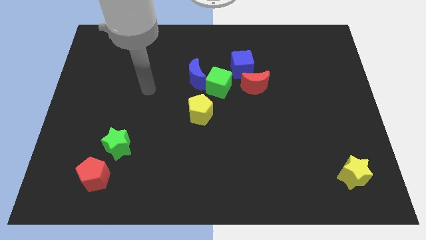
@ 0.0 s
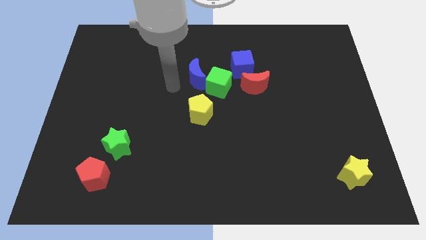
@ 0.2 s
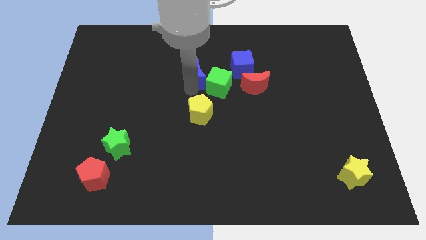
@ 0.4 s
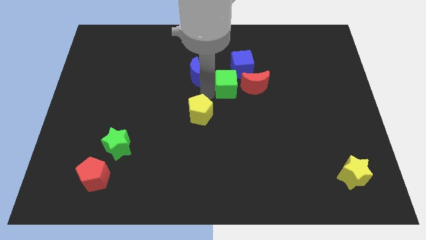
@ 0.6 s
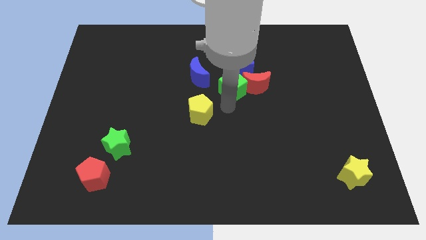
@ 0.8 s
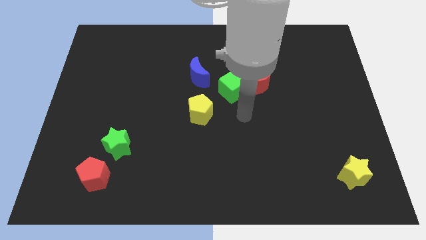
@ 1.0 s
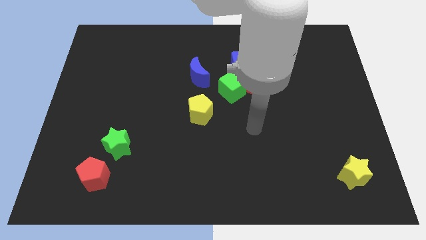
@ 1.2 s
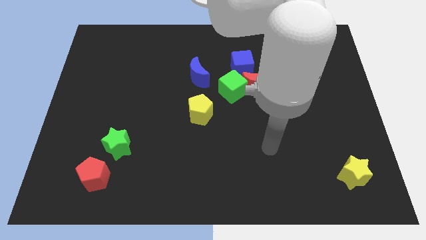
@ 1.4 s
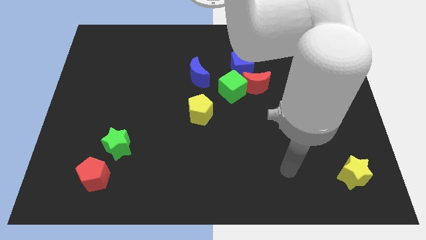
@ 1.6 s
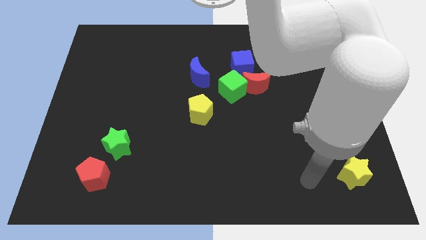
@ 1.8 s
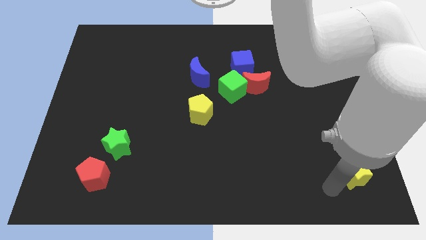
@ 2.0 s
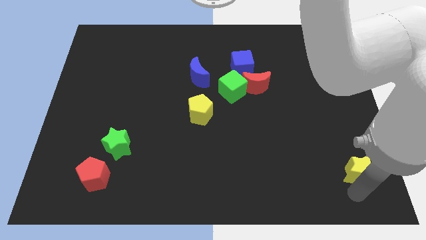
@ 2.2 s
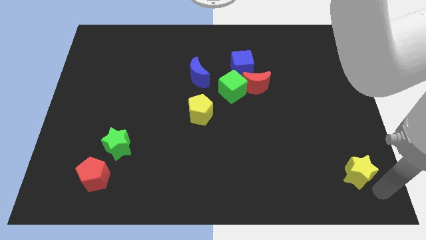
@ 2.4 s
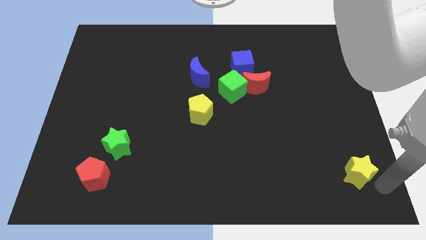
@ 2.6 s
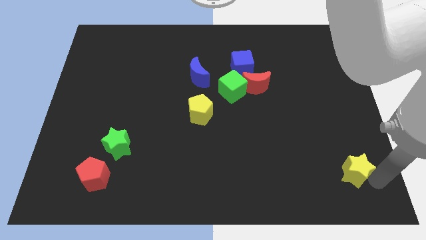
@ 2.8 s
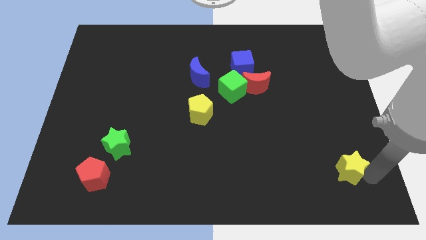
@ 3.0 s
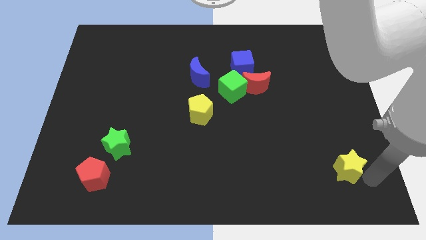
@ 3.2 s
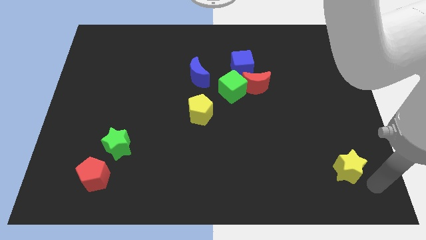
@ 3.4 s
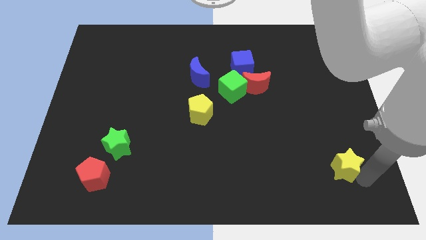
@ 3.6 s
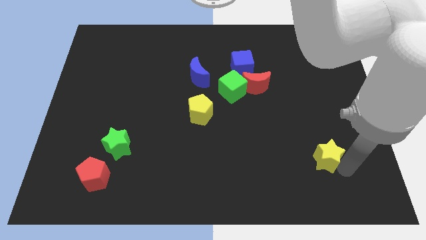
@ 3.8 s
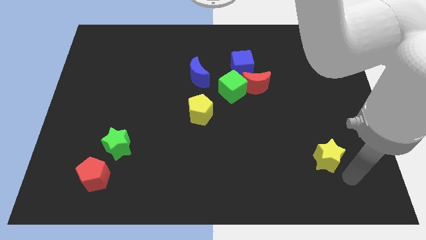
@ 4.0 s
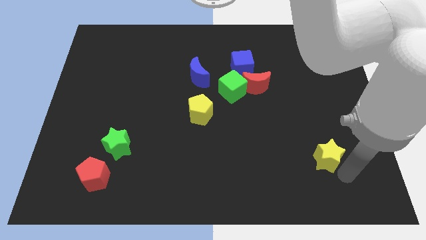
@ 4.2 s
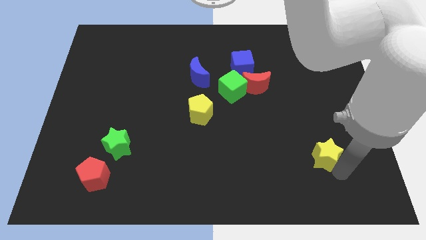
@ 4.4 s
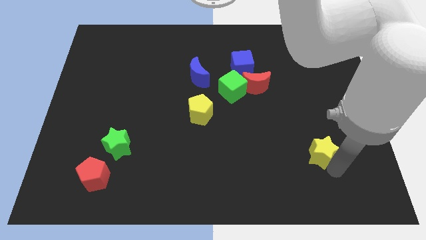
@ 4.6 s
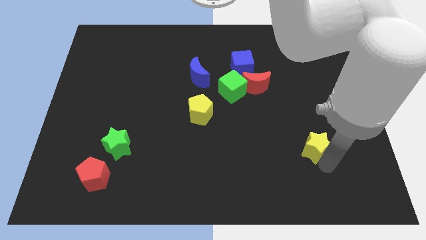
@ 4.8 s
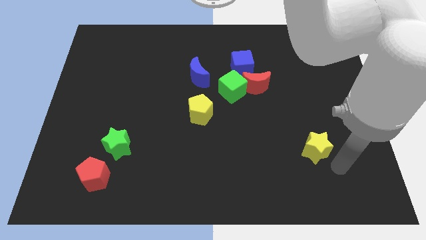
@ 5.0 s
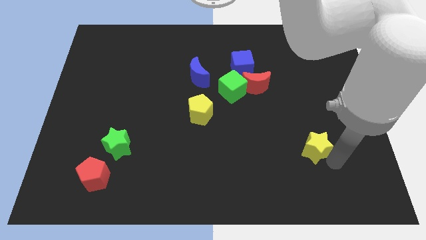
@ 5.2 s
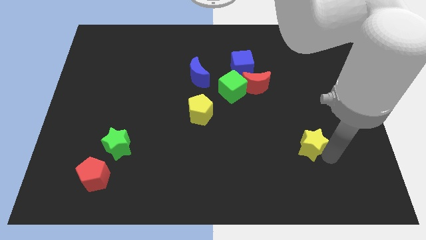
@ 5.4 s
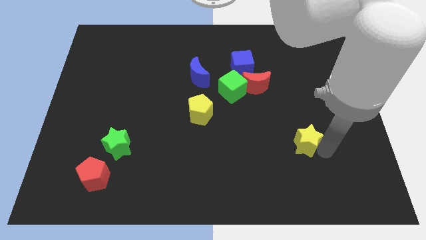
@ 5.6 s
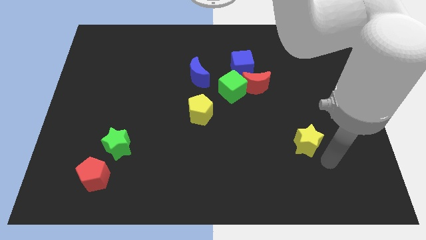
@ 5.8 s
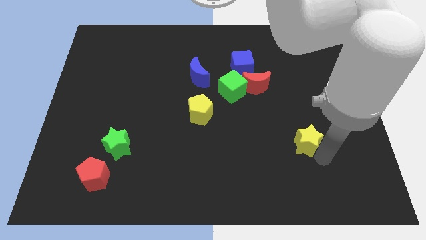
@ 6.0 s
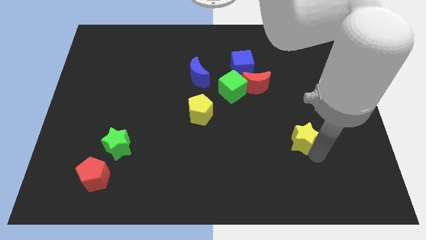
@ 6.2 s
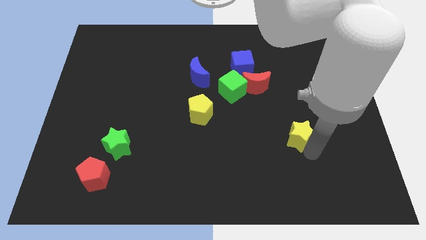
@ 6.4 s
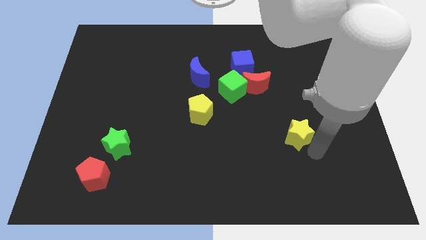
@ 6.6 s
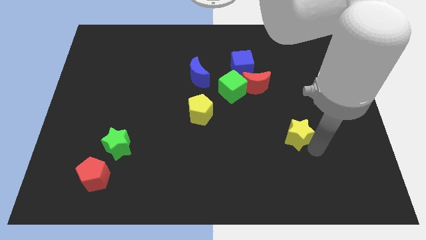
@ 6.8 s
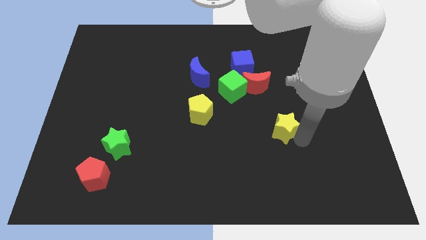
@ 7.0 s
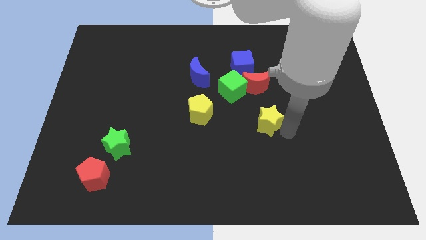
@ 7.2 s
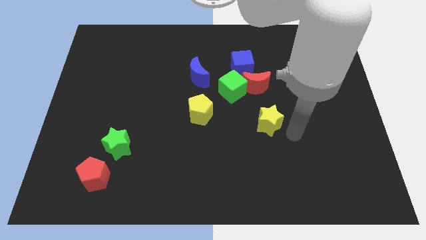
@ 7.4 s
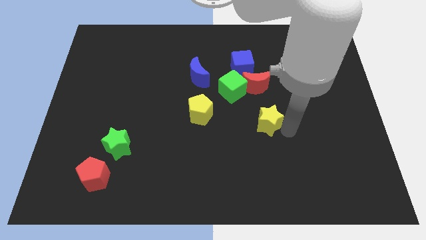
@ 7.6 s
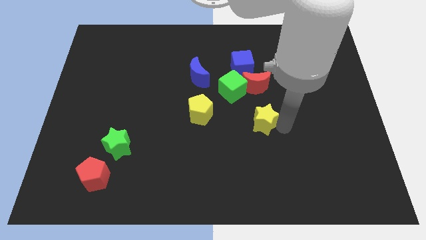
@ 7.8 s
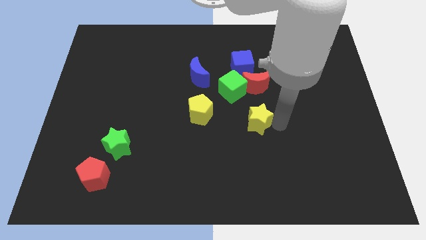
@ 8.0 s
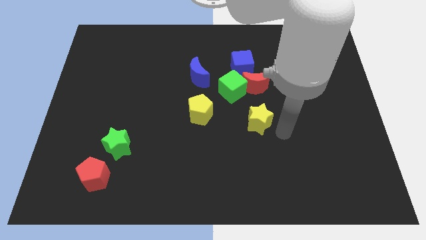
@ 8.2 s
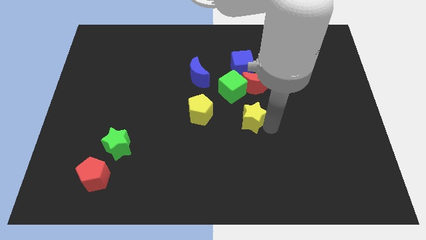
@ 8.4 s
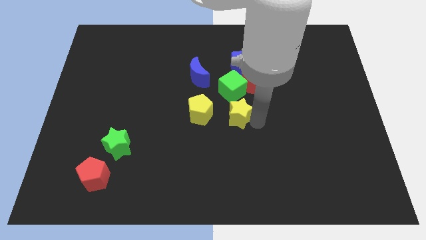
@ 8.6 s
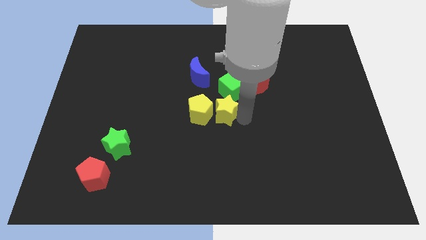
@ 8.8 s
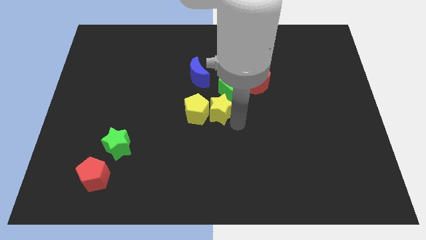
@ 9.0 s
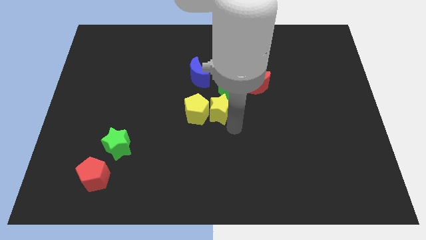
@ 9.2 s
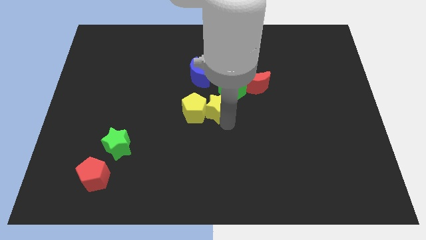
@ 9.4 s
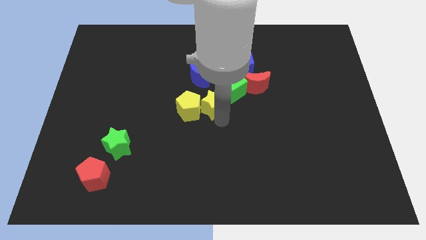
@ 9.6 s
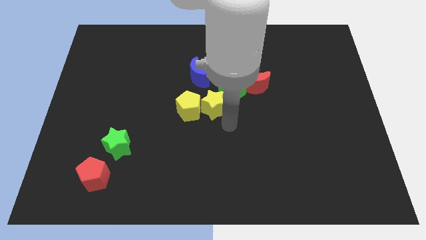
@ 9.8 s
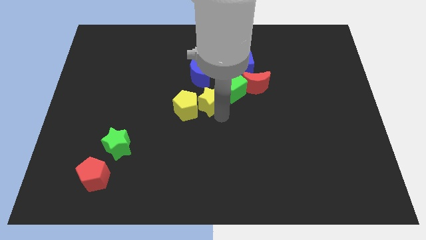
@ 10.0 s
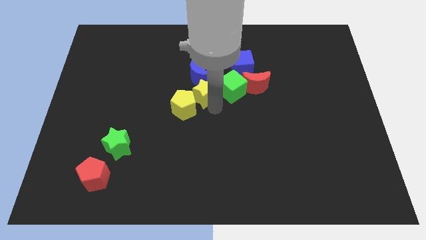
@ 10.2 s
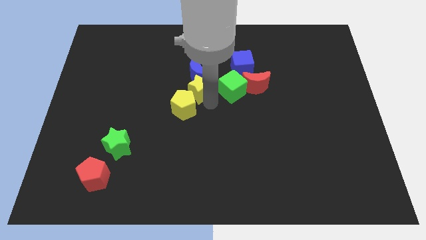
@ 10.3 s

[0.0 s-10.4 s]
push the yellow star to the blue moon

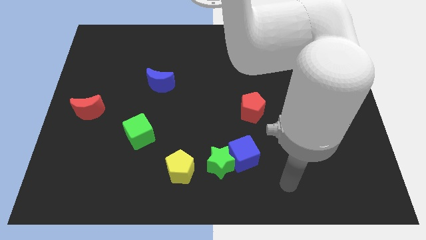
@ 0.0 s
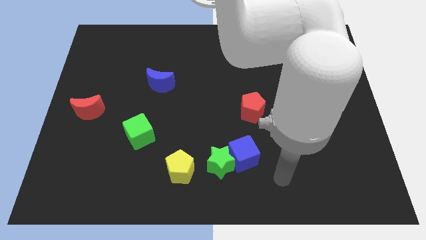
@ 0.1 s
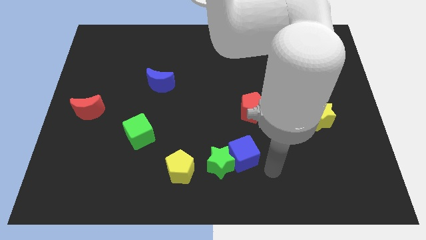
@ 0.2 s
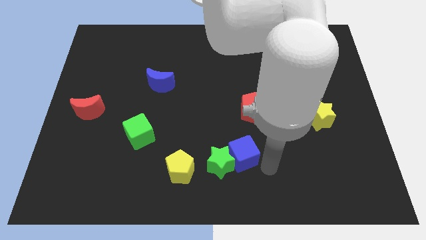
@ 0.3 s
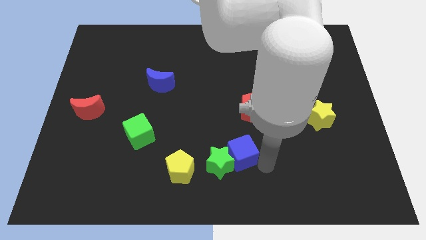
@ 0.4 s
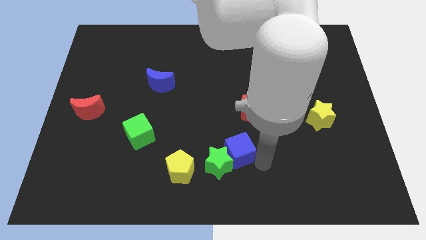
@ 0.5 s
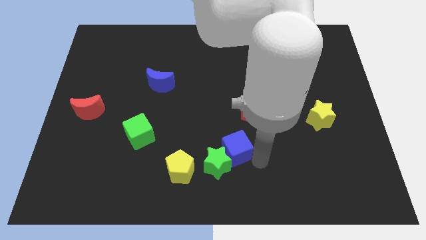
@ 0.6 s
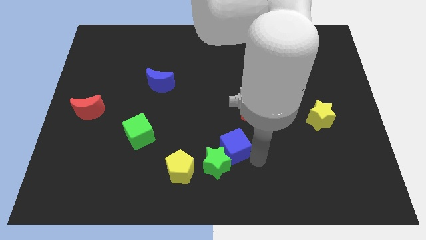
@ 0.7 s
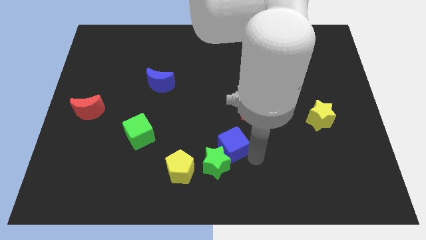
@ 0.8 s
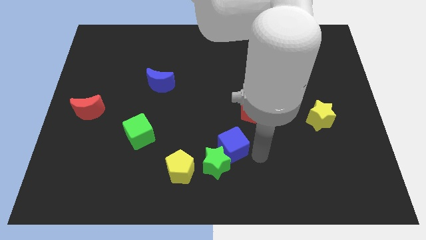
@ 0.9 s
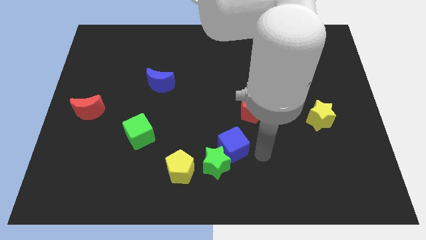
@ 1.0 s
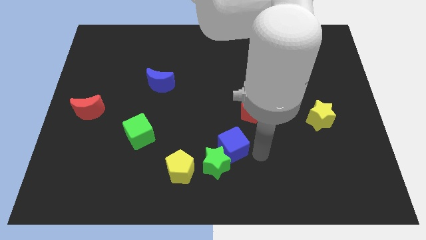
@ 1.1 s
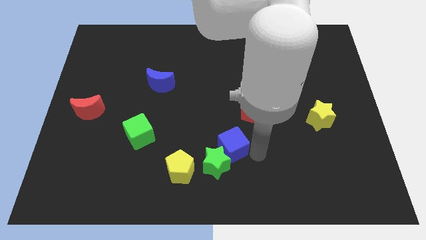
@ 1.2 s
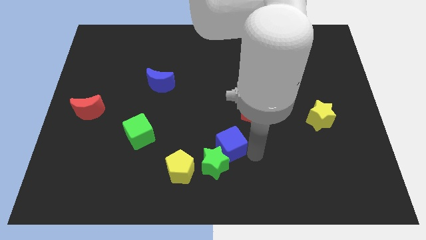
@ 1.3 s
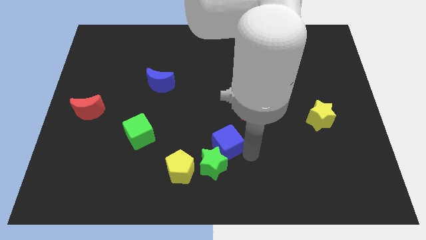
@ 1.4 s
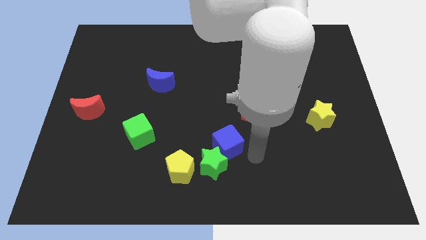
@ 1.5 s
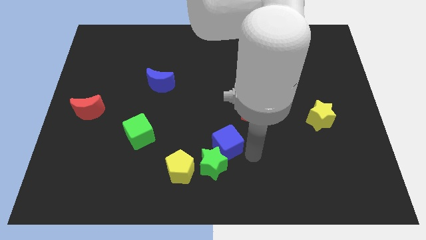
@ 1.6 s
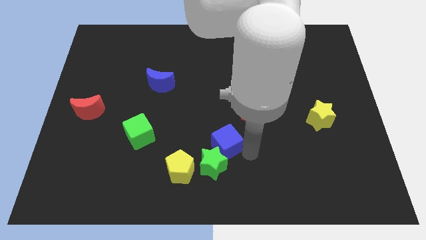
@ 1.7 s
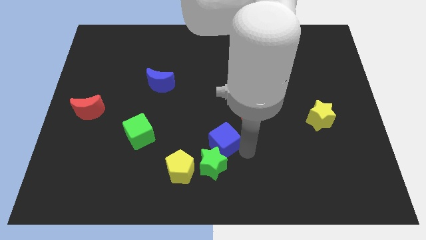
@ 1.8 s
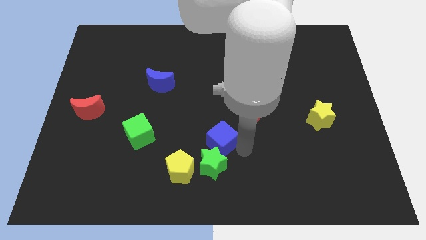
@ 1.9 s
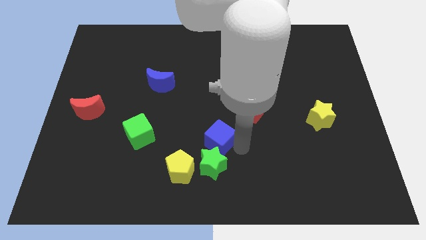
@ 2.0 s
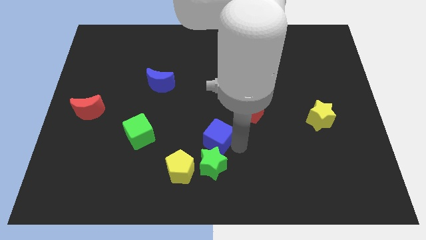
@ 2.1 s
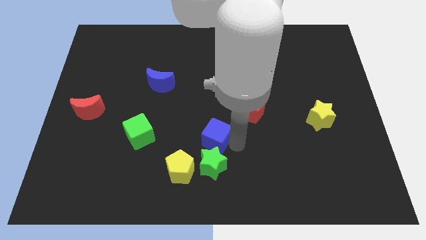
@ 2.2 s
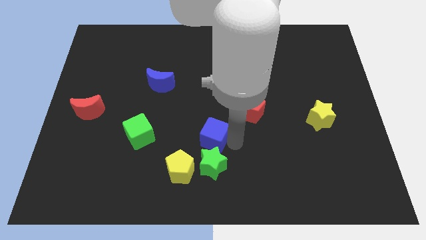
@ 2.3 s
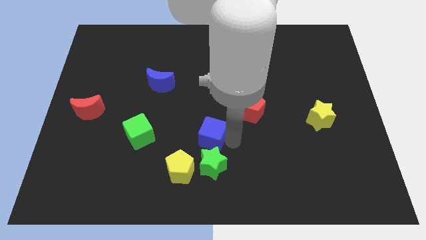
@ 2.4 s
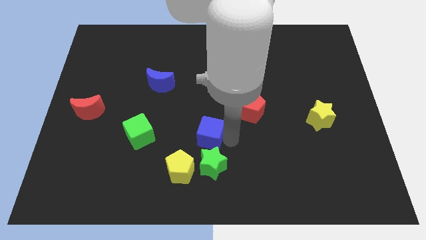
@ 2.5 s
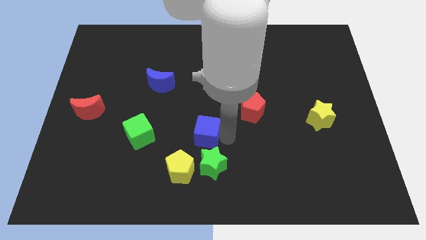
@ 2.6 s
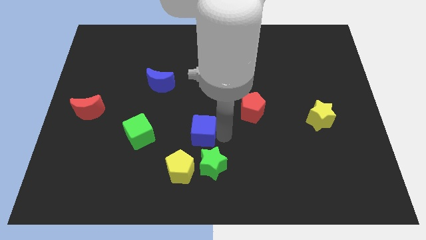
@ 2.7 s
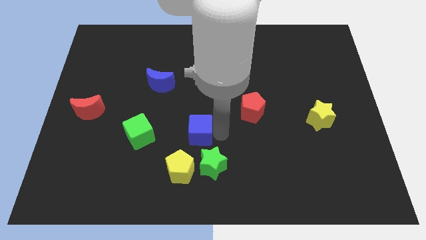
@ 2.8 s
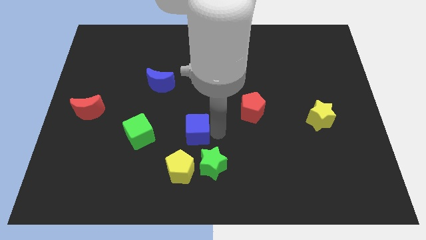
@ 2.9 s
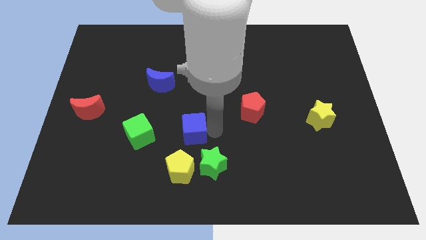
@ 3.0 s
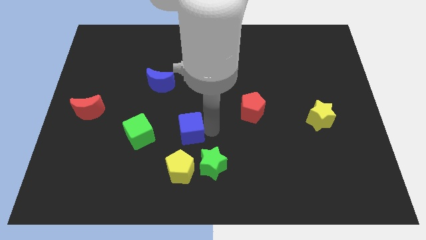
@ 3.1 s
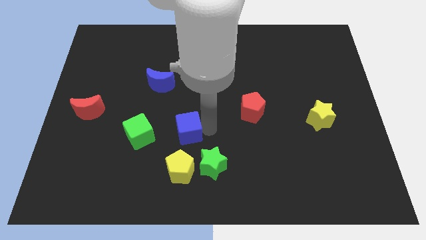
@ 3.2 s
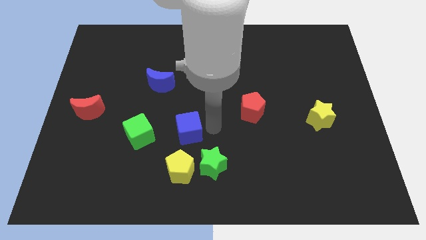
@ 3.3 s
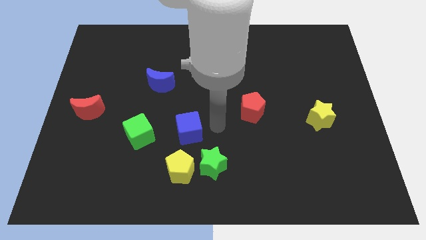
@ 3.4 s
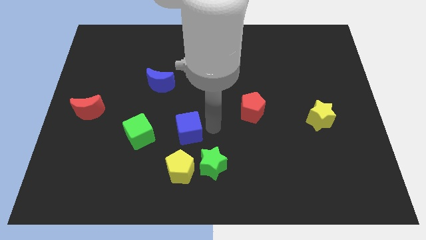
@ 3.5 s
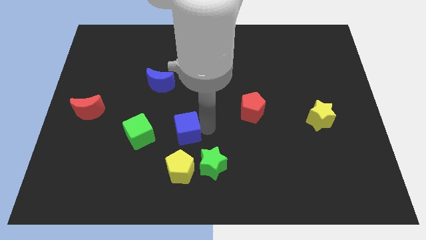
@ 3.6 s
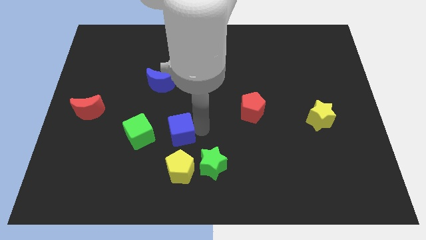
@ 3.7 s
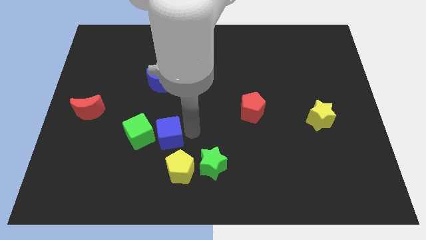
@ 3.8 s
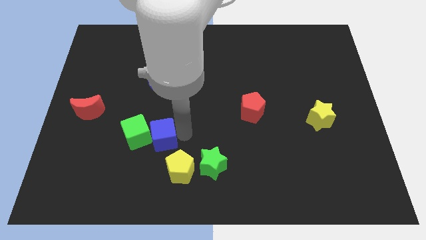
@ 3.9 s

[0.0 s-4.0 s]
put the blue cube next to the green cube
